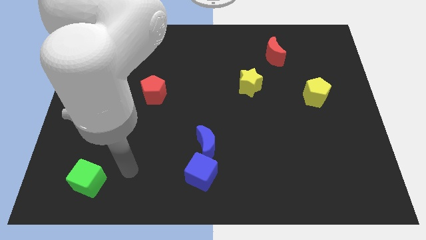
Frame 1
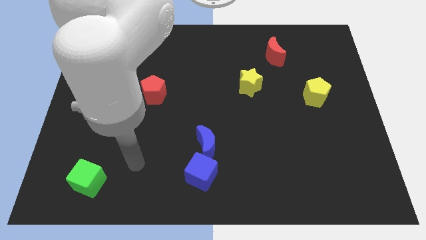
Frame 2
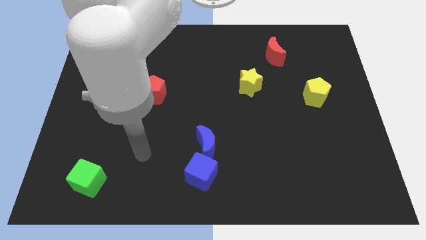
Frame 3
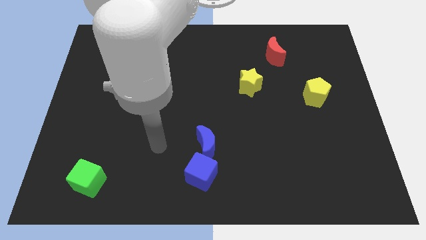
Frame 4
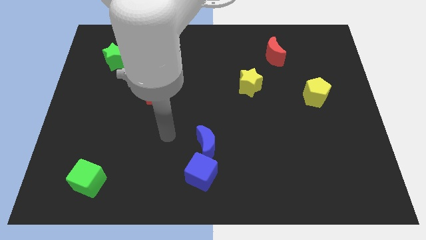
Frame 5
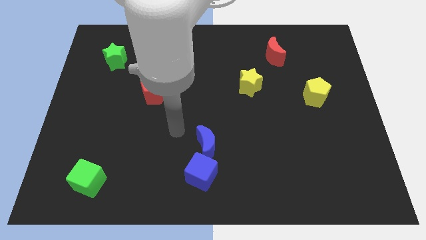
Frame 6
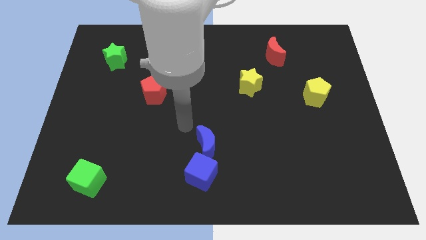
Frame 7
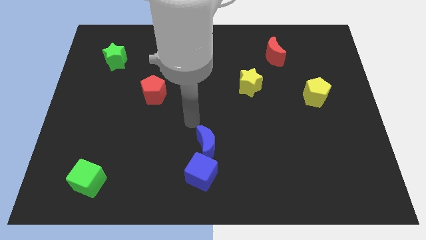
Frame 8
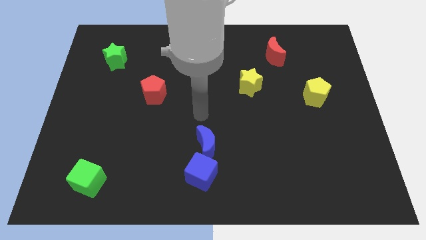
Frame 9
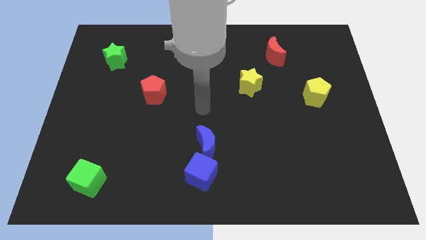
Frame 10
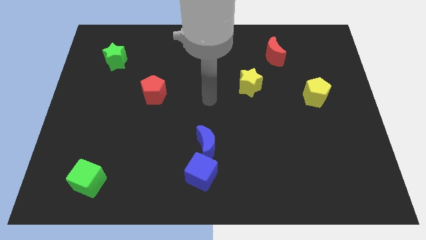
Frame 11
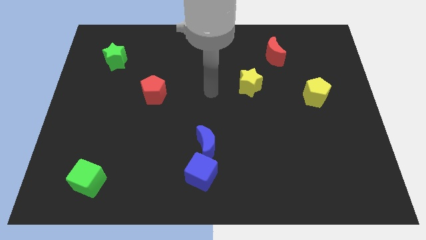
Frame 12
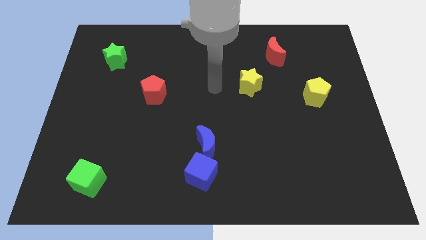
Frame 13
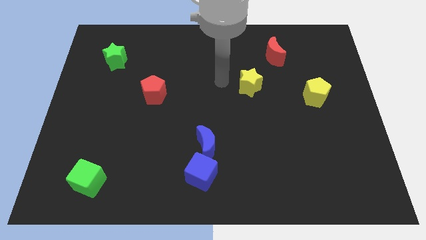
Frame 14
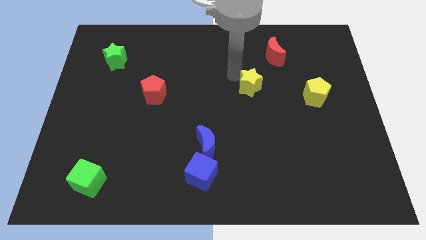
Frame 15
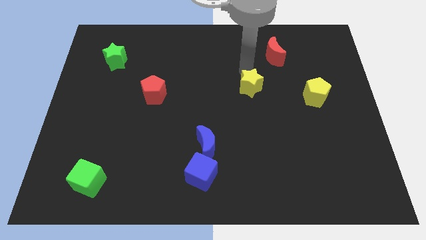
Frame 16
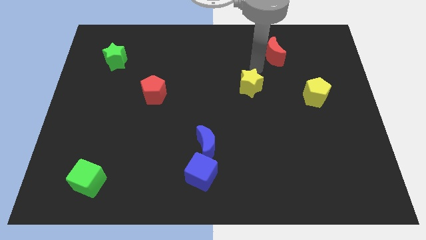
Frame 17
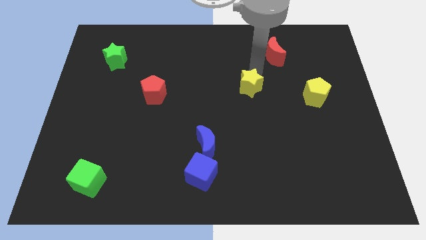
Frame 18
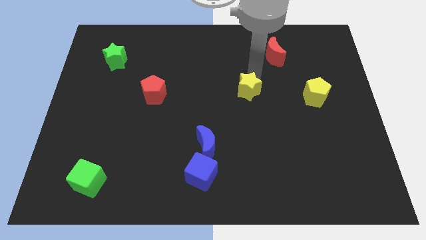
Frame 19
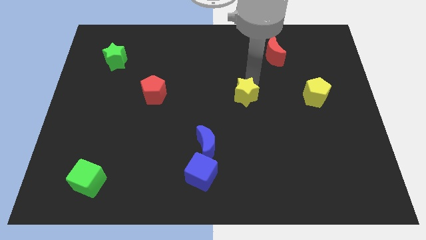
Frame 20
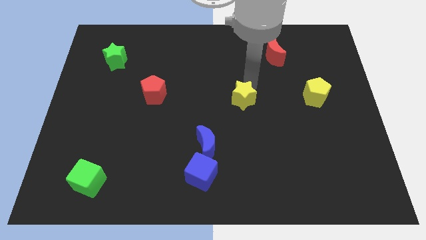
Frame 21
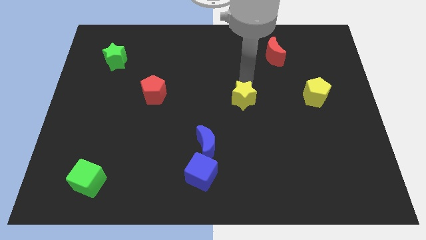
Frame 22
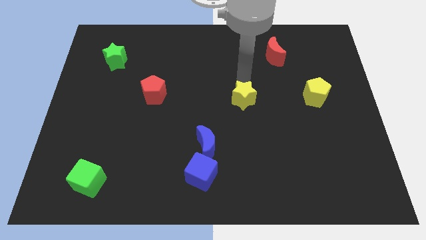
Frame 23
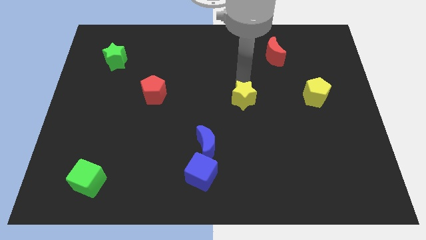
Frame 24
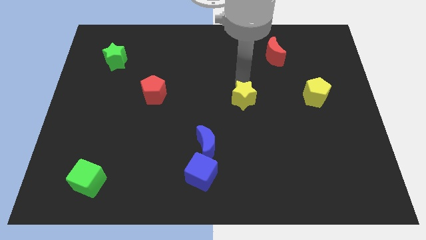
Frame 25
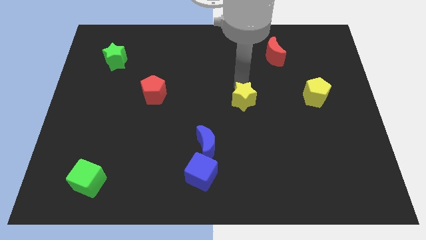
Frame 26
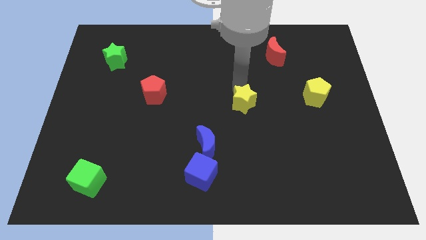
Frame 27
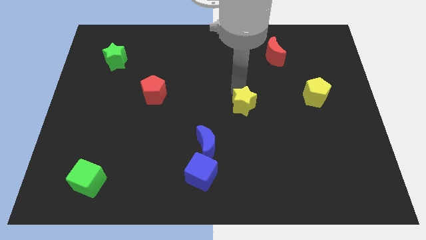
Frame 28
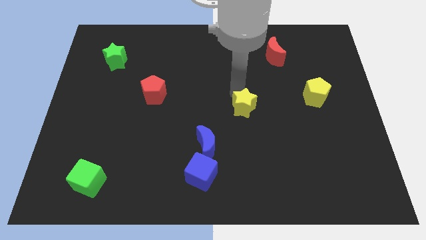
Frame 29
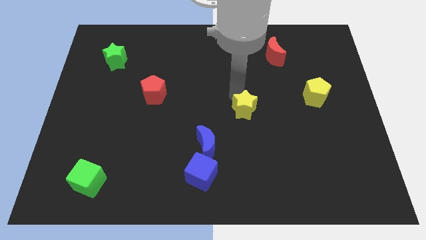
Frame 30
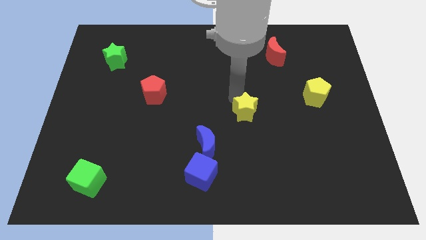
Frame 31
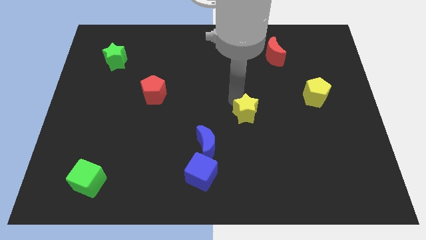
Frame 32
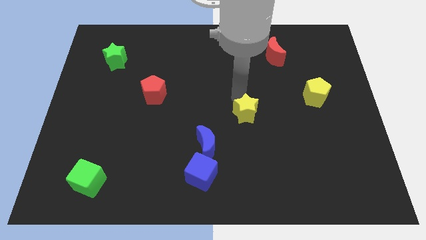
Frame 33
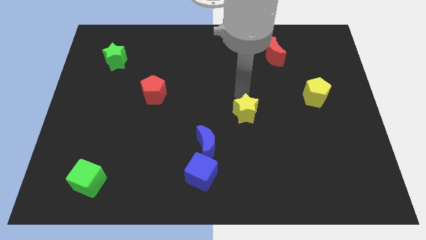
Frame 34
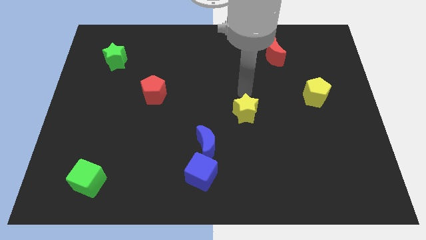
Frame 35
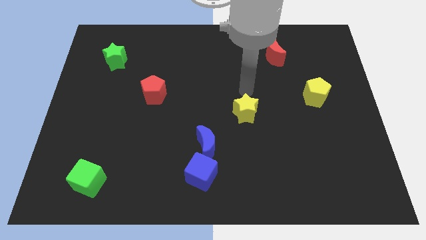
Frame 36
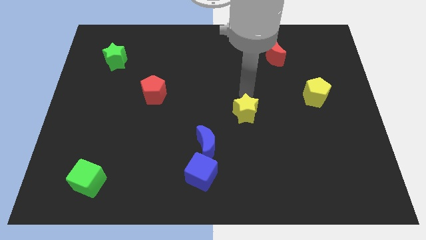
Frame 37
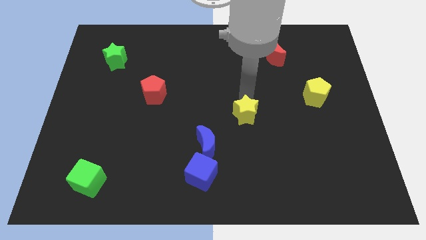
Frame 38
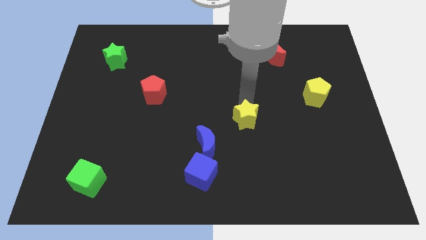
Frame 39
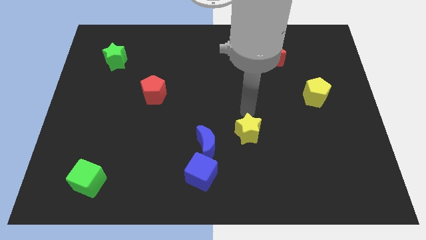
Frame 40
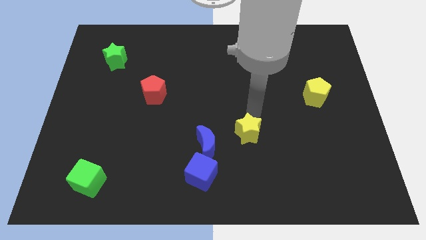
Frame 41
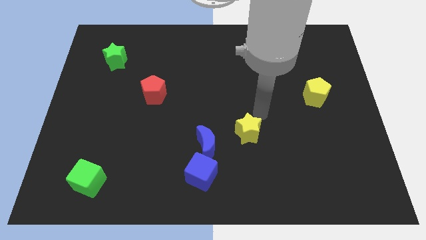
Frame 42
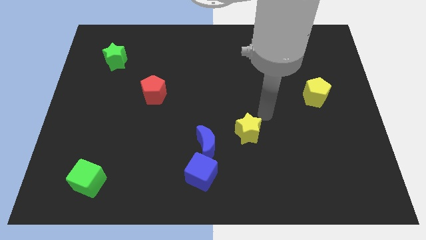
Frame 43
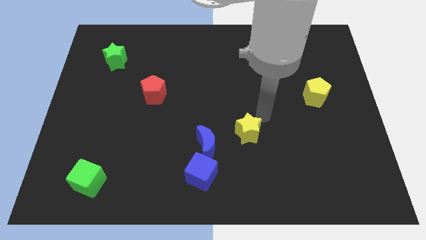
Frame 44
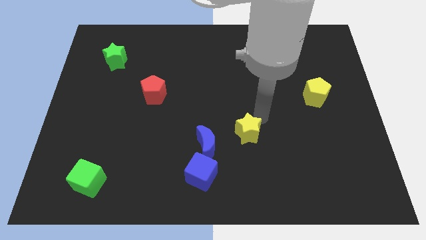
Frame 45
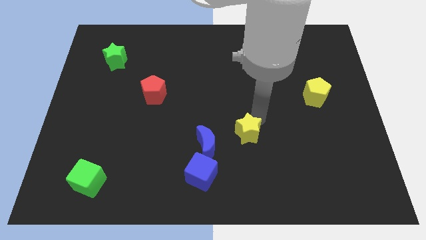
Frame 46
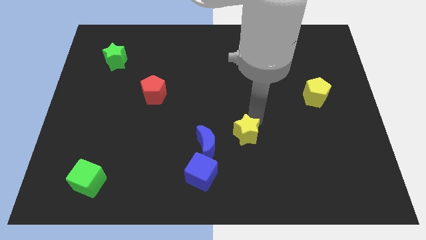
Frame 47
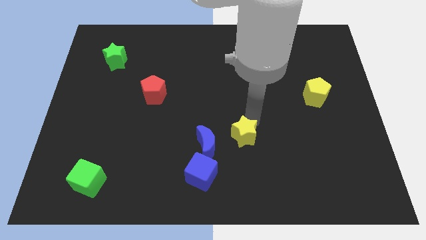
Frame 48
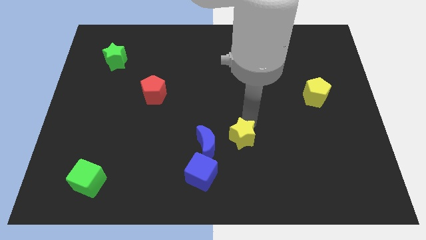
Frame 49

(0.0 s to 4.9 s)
push the yellow star to the top right side of the blue cube

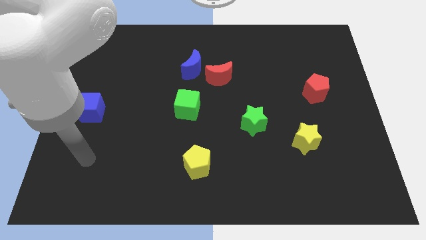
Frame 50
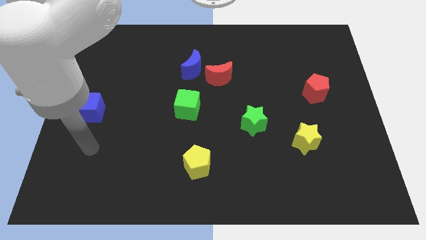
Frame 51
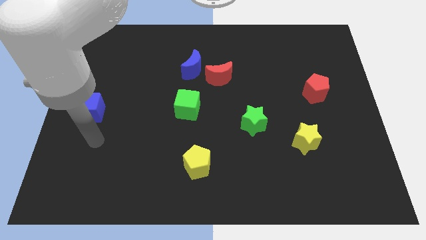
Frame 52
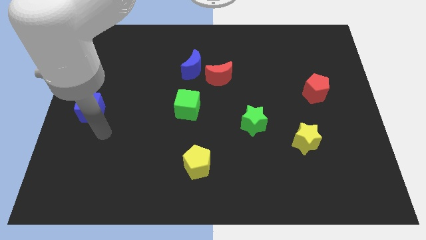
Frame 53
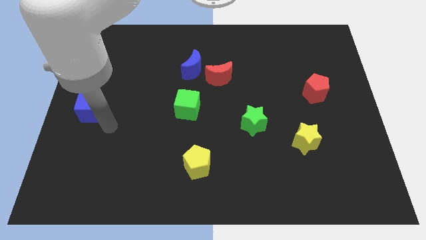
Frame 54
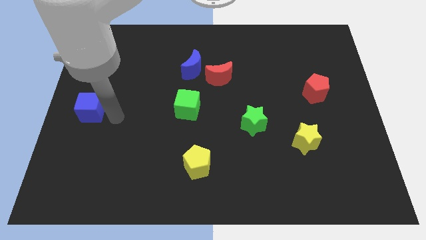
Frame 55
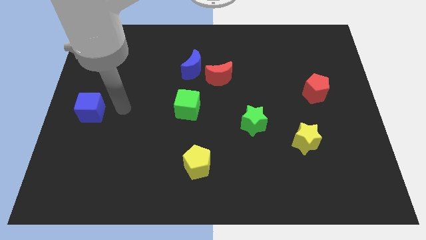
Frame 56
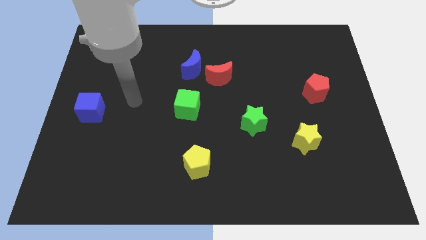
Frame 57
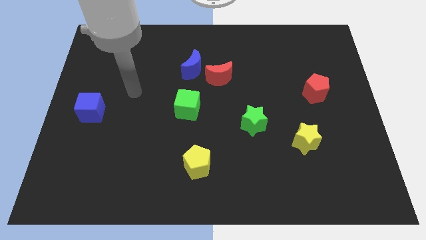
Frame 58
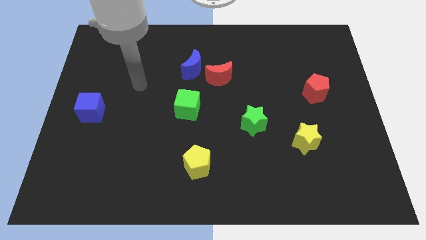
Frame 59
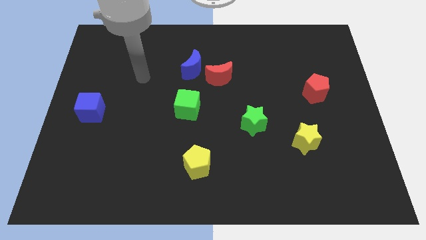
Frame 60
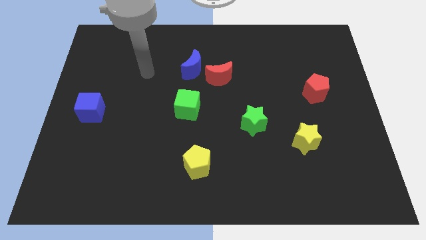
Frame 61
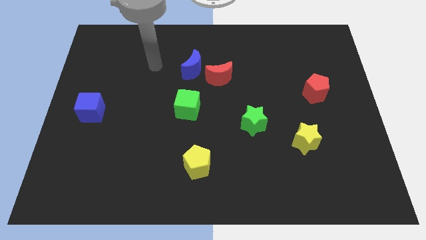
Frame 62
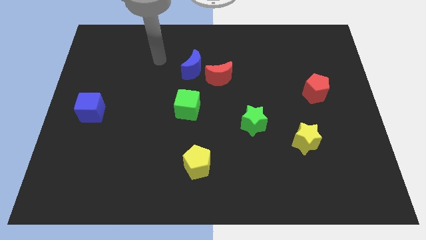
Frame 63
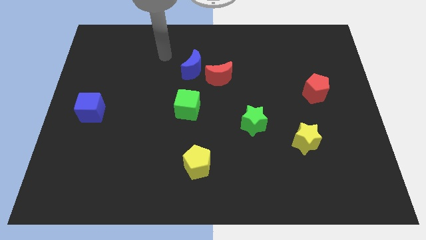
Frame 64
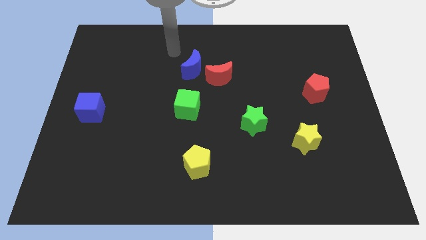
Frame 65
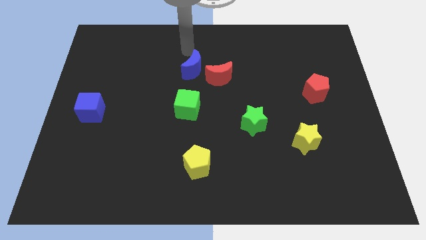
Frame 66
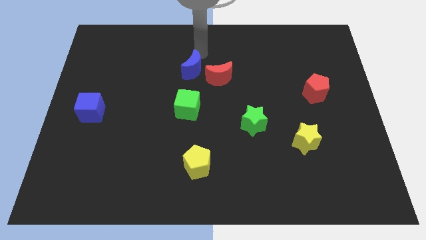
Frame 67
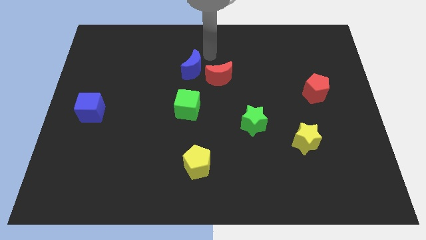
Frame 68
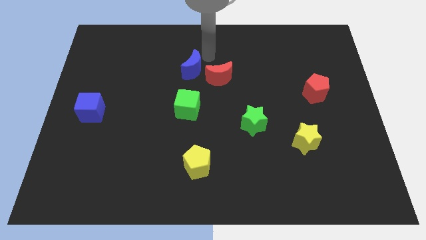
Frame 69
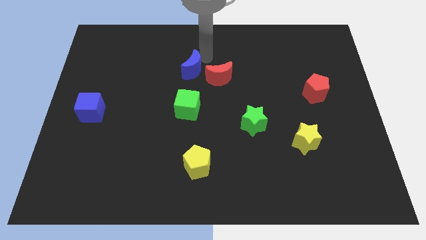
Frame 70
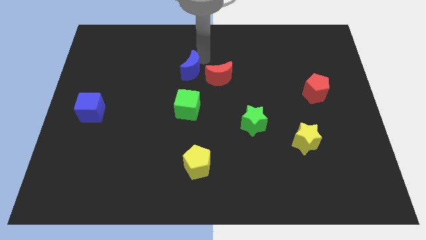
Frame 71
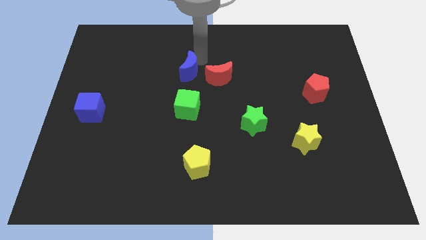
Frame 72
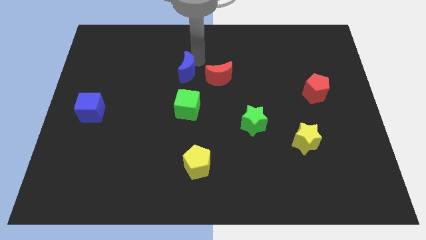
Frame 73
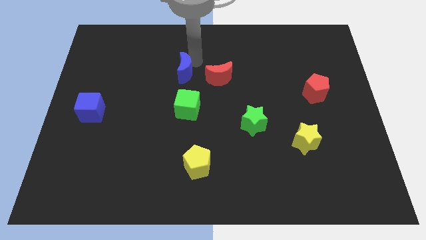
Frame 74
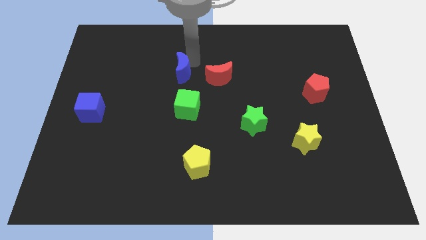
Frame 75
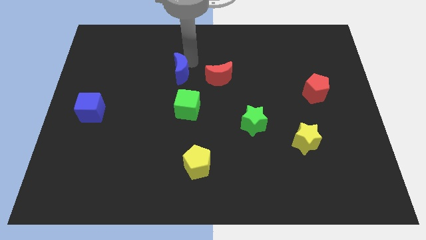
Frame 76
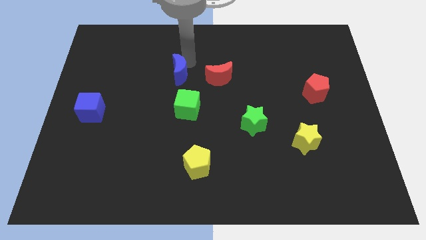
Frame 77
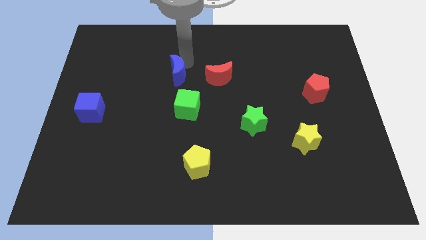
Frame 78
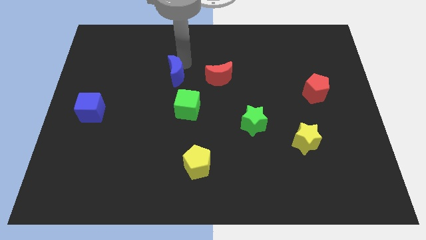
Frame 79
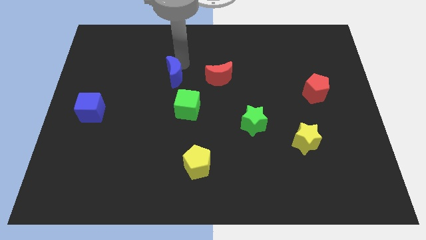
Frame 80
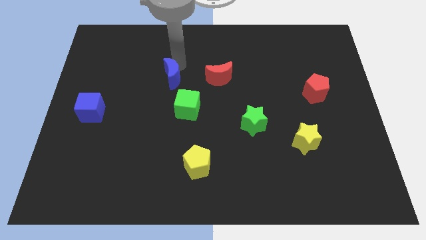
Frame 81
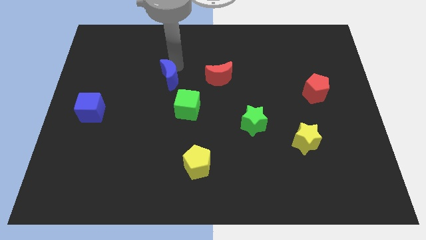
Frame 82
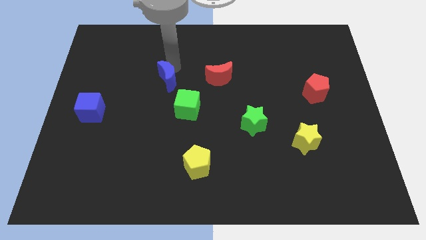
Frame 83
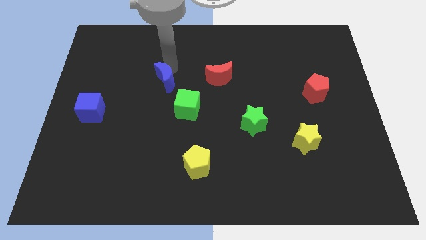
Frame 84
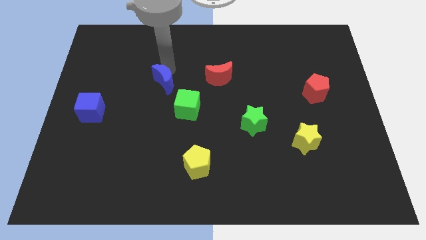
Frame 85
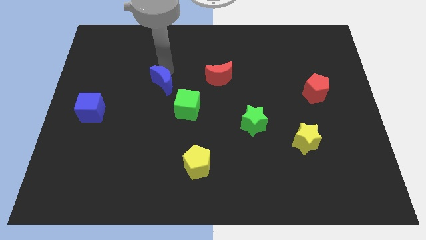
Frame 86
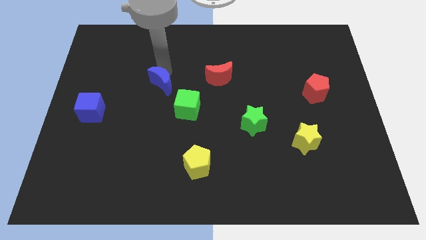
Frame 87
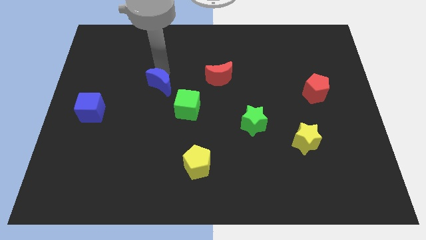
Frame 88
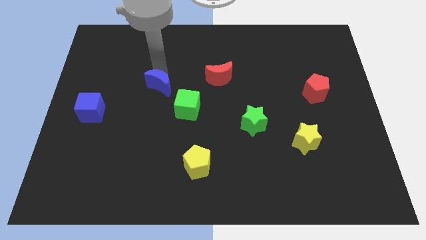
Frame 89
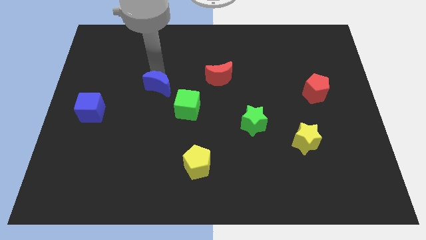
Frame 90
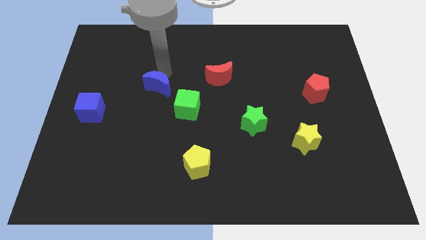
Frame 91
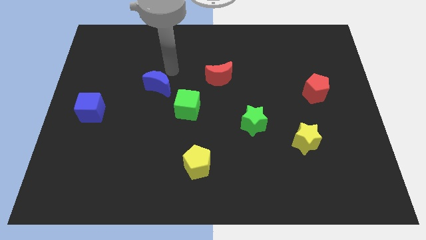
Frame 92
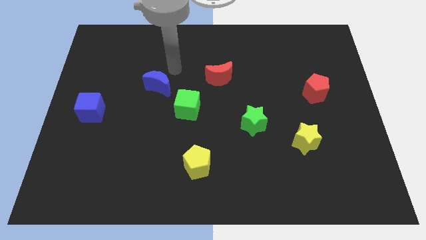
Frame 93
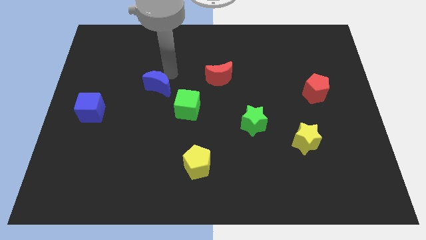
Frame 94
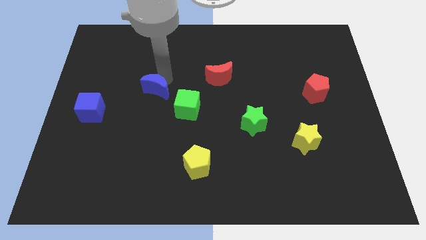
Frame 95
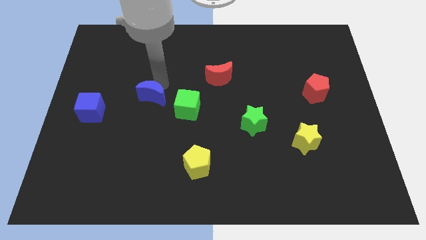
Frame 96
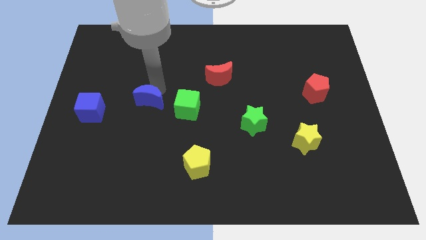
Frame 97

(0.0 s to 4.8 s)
move the blue moon just right of the blue cube
